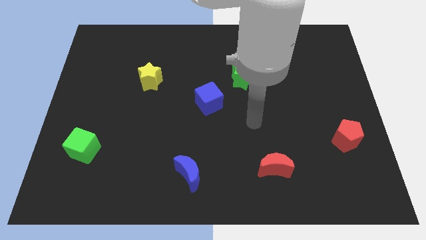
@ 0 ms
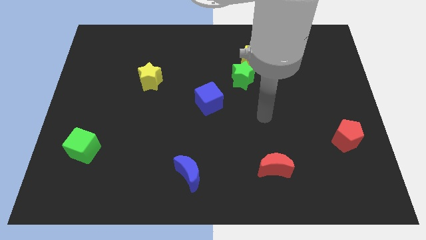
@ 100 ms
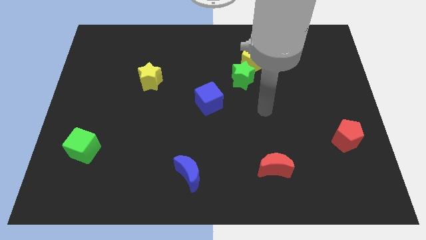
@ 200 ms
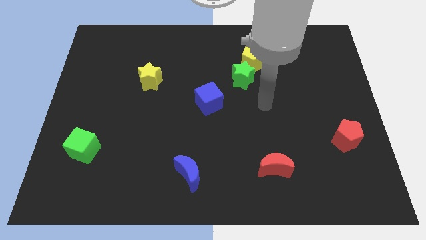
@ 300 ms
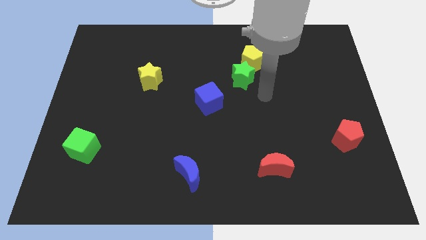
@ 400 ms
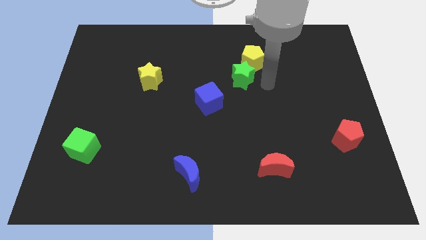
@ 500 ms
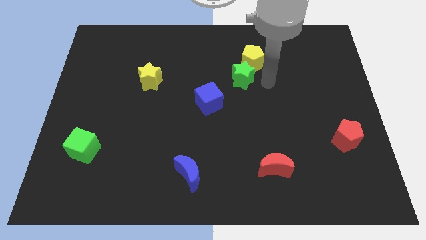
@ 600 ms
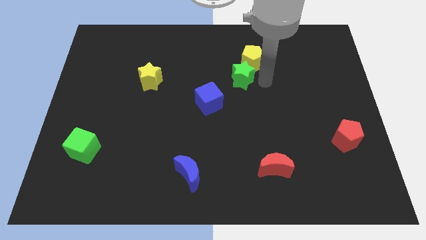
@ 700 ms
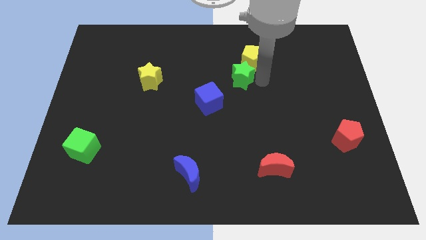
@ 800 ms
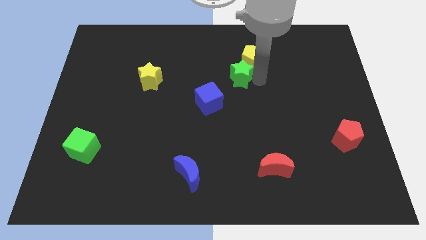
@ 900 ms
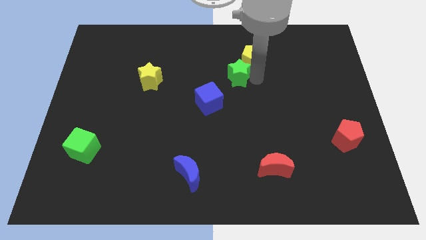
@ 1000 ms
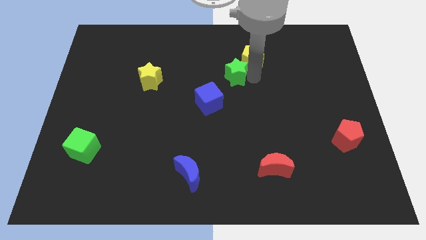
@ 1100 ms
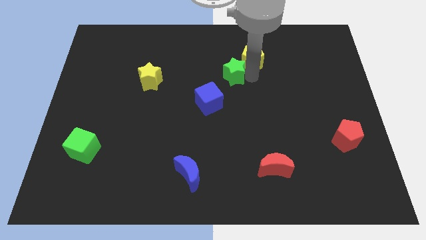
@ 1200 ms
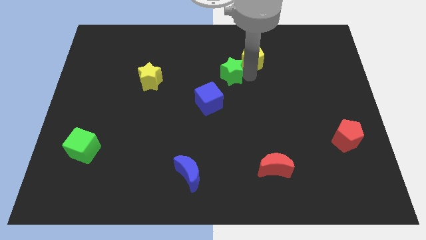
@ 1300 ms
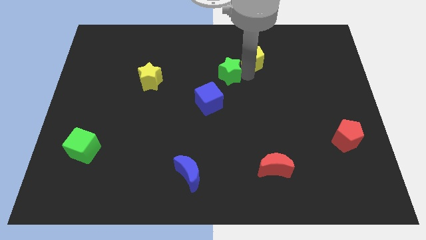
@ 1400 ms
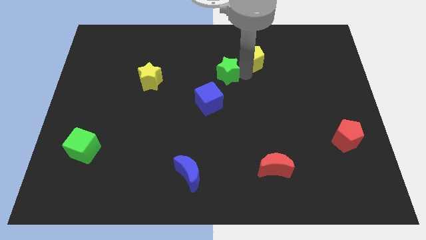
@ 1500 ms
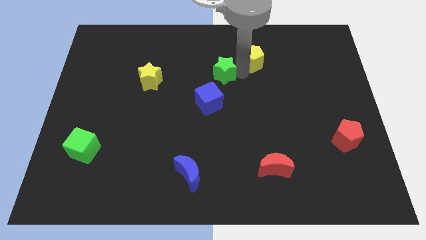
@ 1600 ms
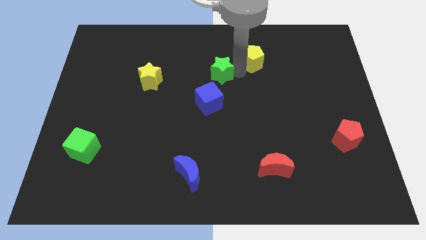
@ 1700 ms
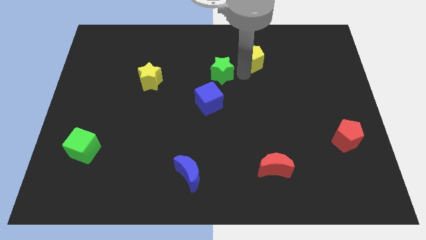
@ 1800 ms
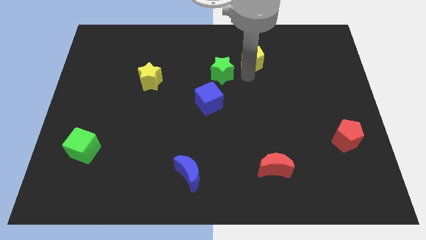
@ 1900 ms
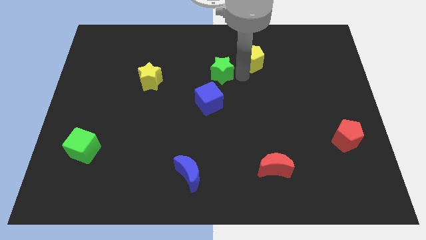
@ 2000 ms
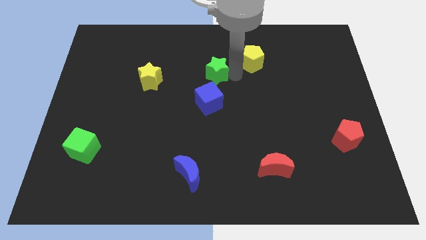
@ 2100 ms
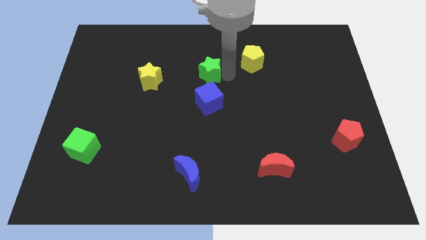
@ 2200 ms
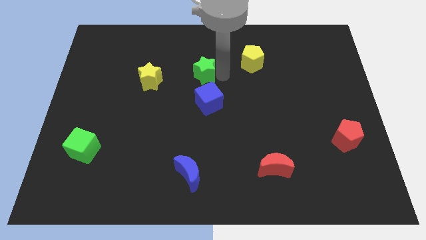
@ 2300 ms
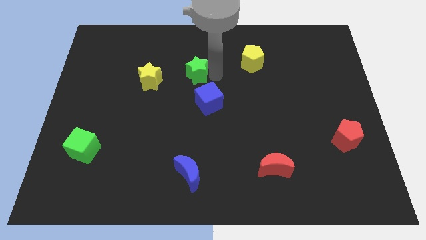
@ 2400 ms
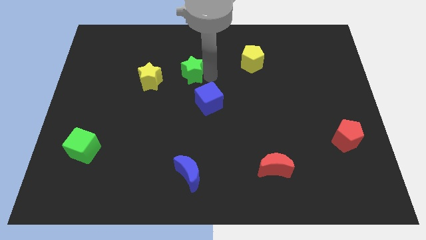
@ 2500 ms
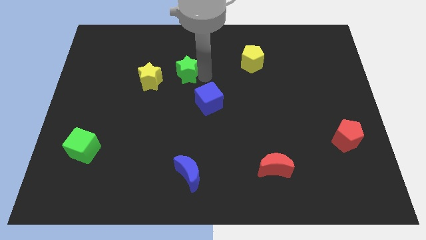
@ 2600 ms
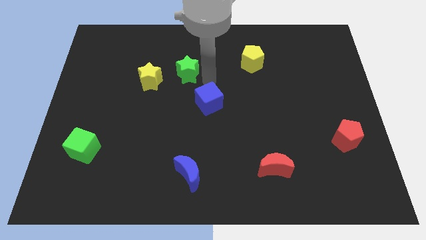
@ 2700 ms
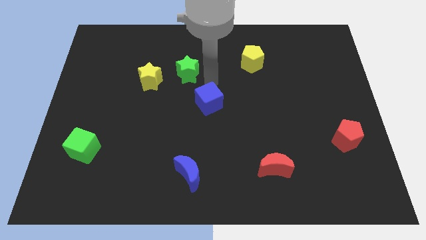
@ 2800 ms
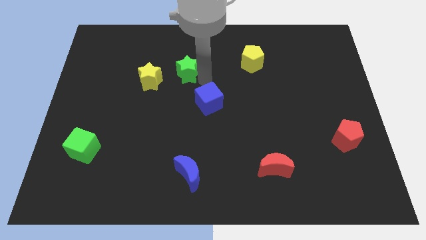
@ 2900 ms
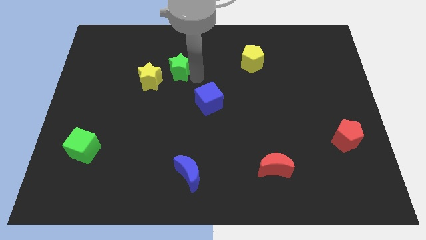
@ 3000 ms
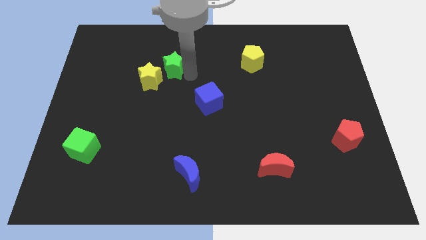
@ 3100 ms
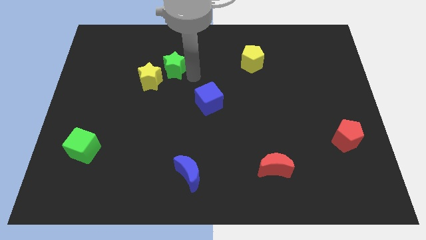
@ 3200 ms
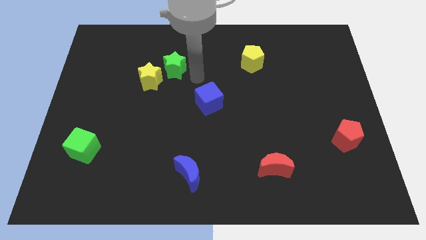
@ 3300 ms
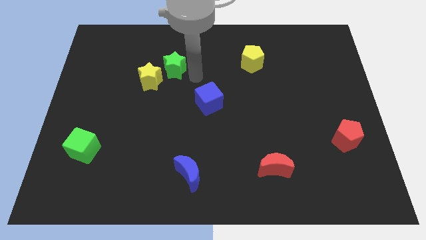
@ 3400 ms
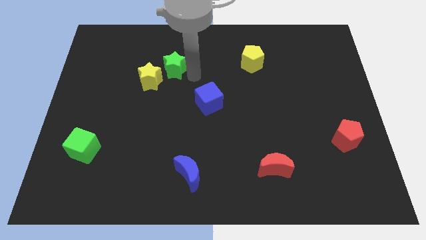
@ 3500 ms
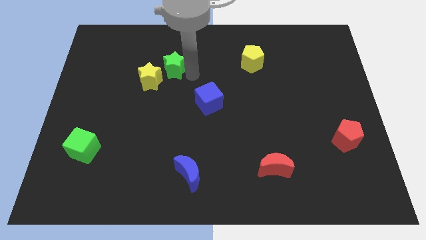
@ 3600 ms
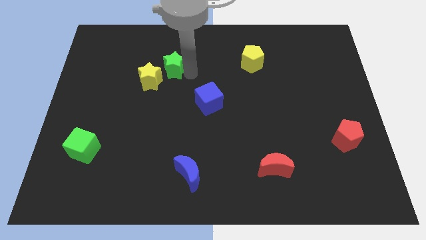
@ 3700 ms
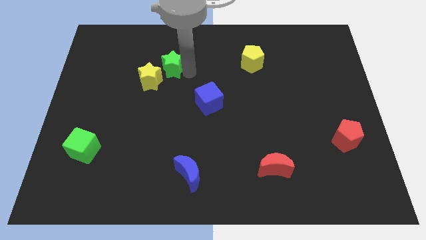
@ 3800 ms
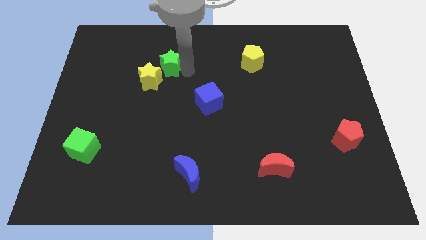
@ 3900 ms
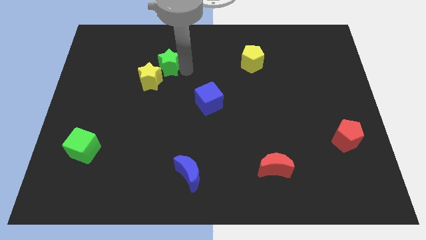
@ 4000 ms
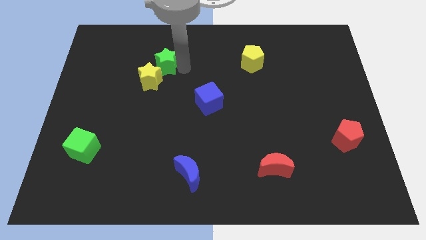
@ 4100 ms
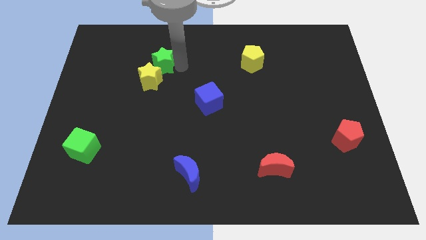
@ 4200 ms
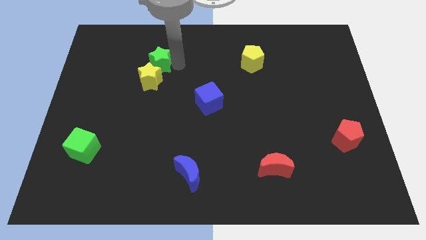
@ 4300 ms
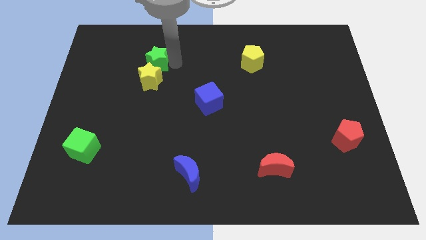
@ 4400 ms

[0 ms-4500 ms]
slide the green star to the left

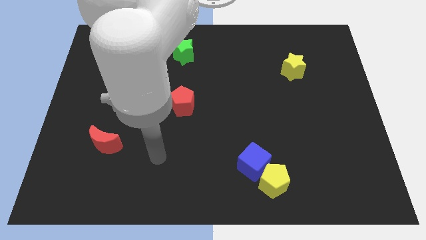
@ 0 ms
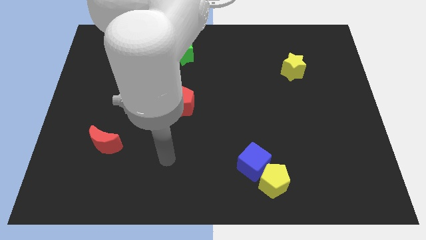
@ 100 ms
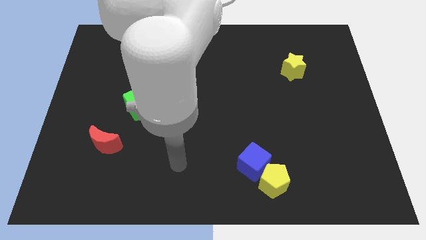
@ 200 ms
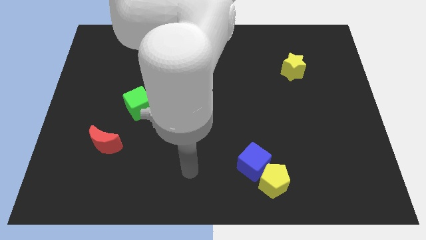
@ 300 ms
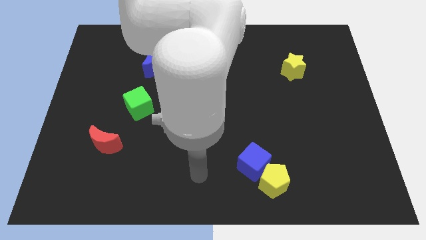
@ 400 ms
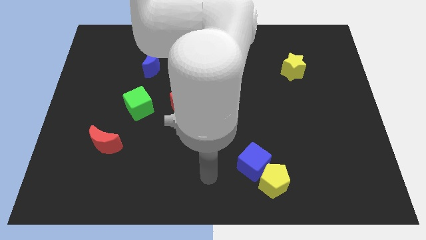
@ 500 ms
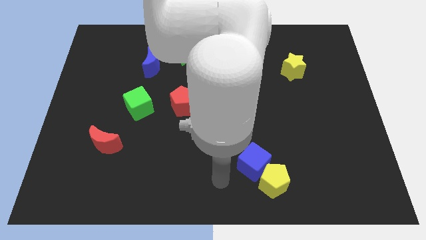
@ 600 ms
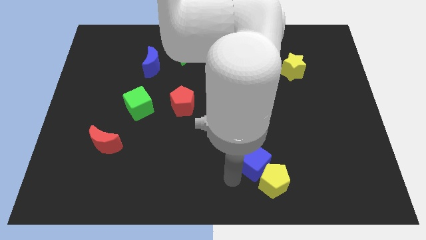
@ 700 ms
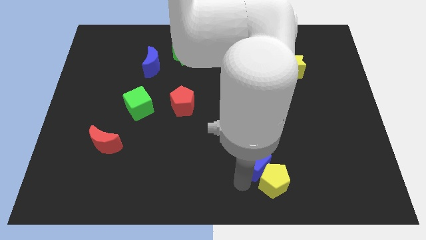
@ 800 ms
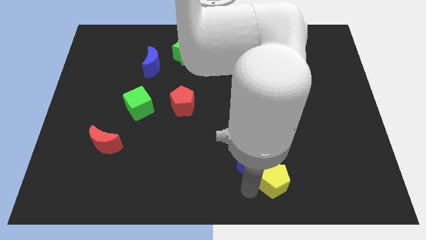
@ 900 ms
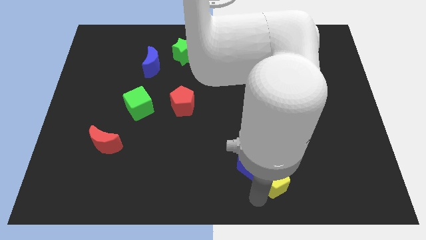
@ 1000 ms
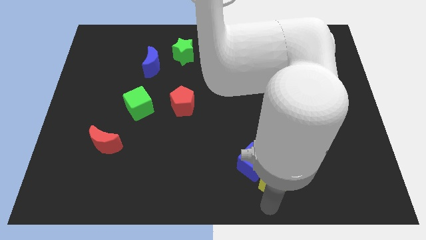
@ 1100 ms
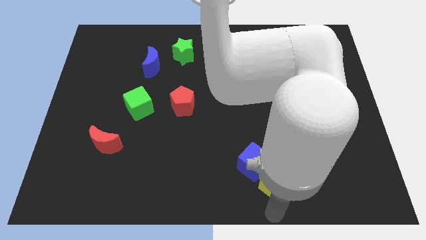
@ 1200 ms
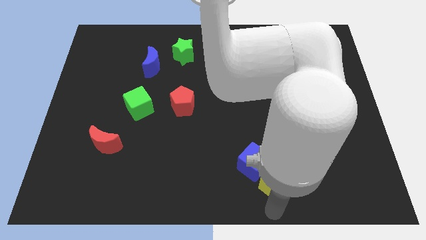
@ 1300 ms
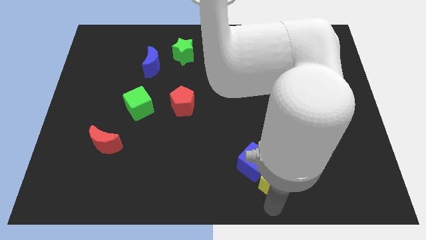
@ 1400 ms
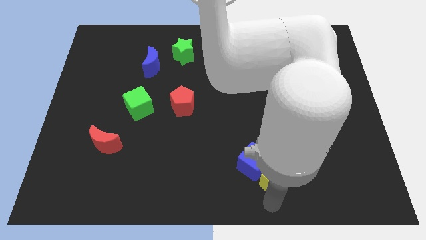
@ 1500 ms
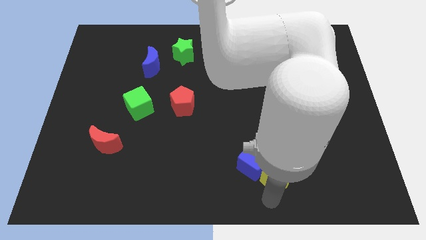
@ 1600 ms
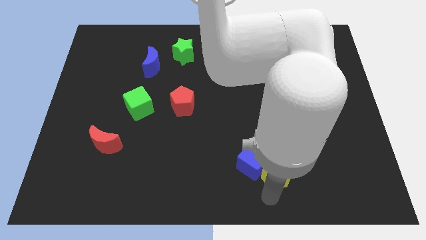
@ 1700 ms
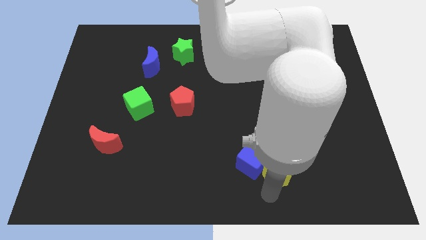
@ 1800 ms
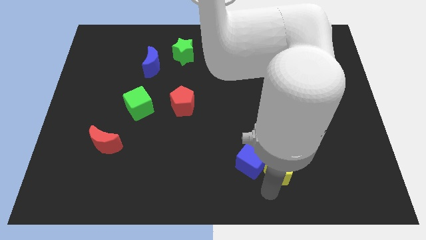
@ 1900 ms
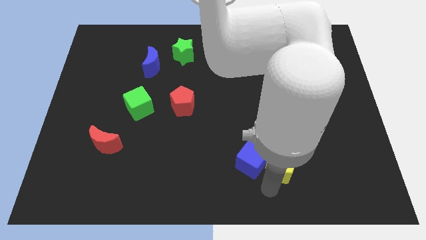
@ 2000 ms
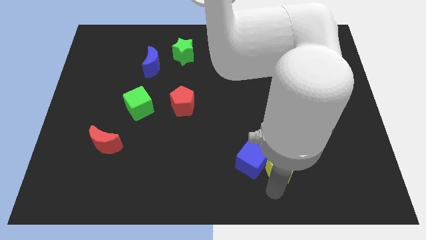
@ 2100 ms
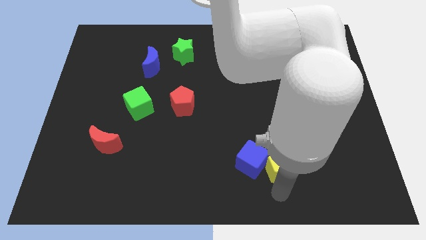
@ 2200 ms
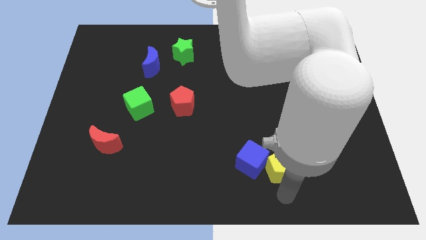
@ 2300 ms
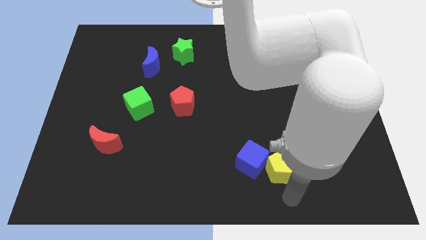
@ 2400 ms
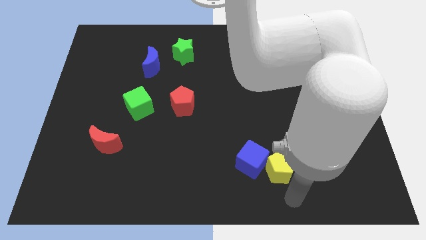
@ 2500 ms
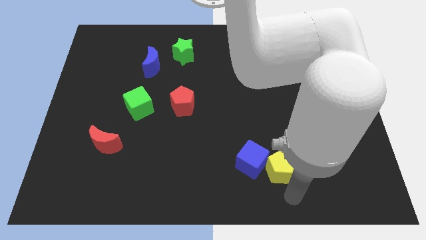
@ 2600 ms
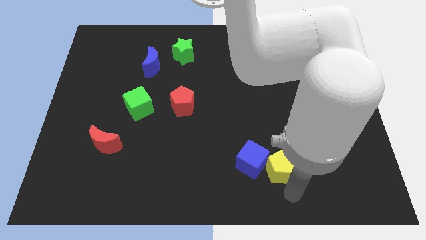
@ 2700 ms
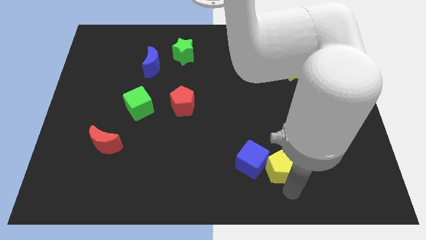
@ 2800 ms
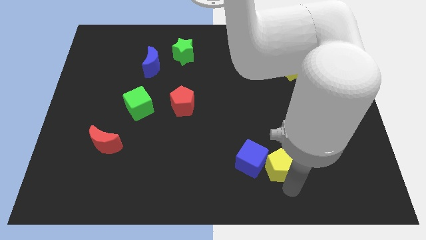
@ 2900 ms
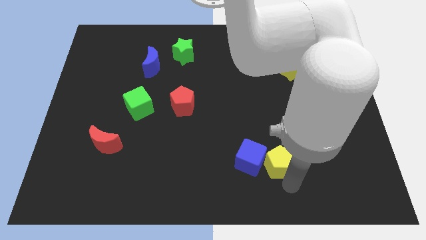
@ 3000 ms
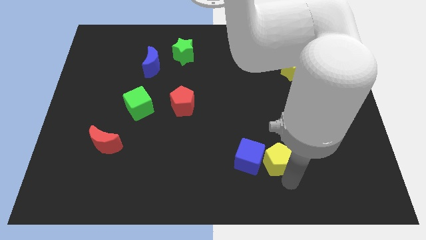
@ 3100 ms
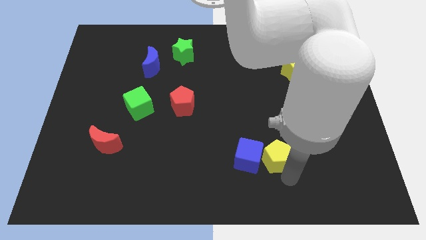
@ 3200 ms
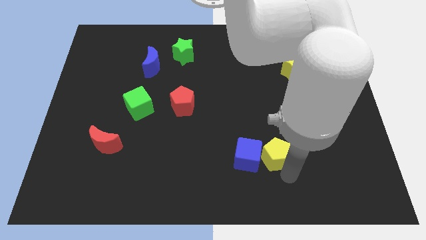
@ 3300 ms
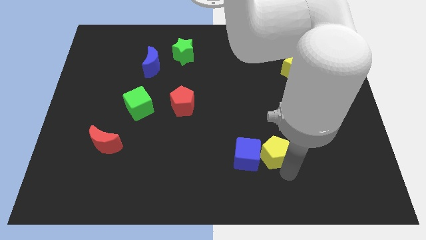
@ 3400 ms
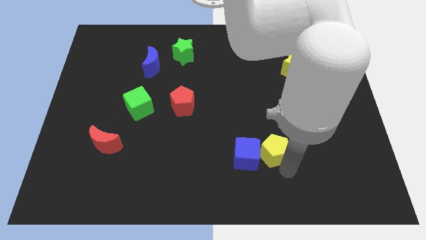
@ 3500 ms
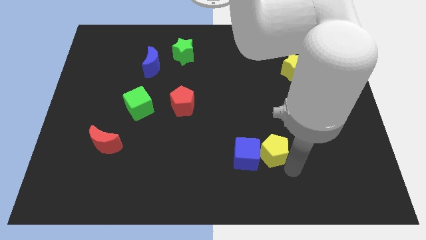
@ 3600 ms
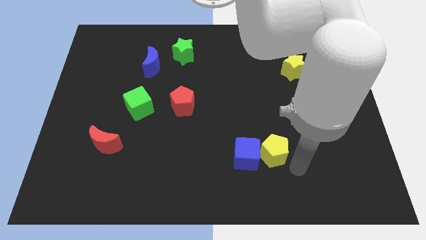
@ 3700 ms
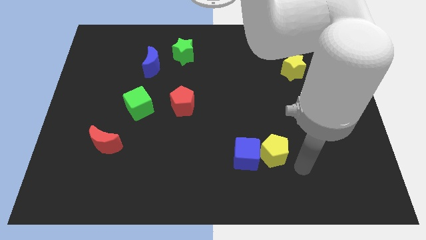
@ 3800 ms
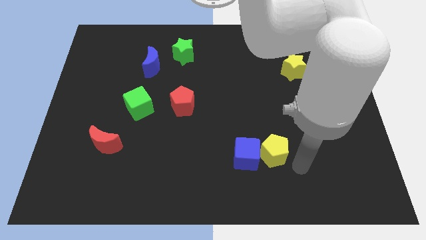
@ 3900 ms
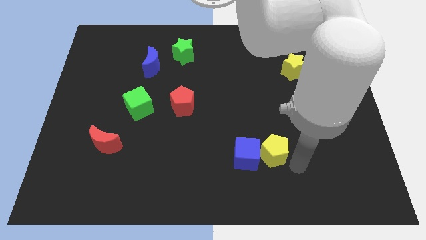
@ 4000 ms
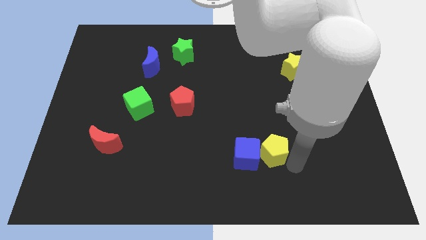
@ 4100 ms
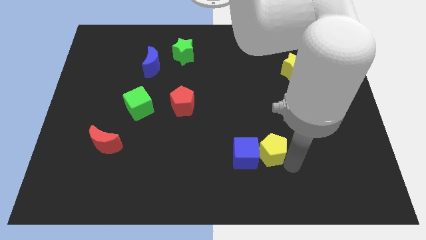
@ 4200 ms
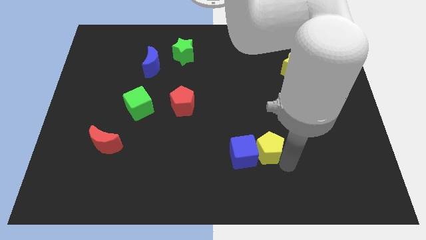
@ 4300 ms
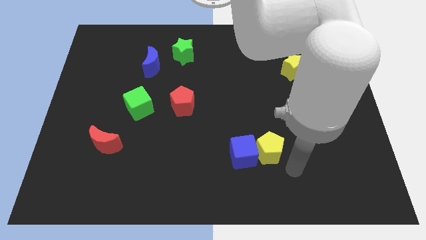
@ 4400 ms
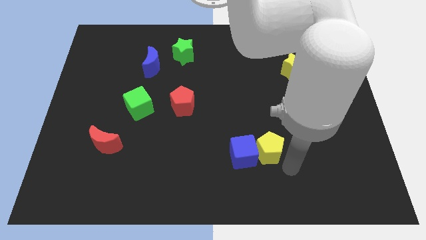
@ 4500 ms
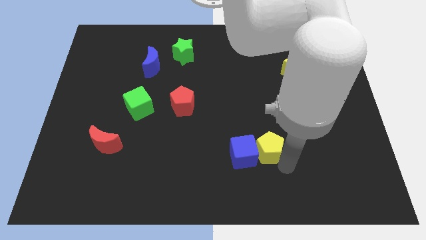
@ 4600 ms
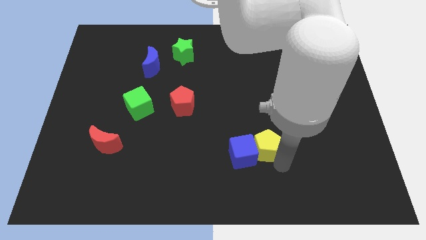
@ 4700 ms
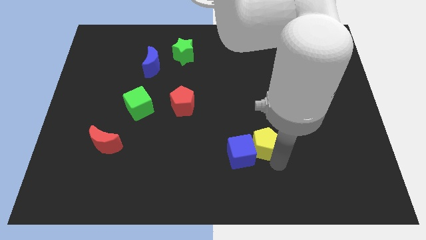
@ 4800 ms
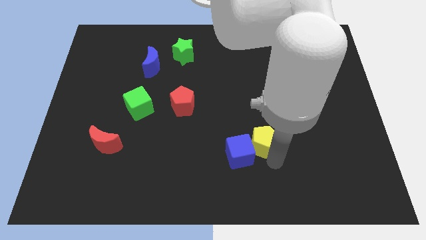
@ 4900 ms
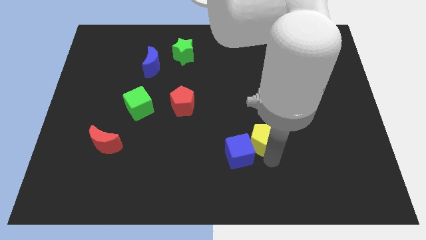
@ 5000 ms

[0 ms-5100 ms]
slightly push the yellow pentagon upwards and left
